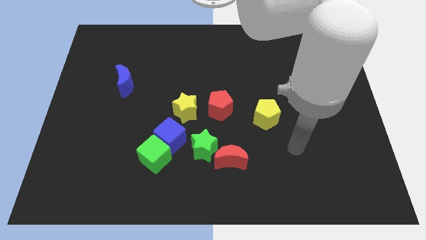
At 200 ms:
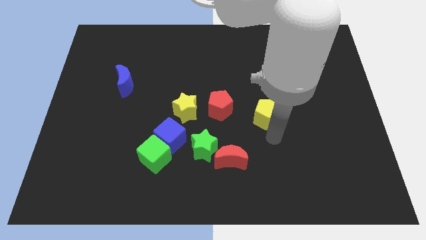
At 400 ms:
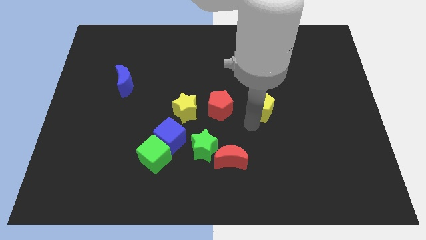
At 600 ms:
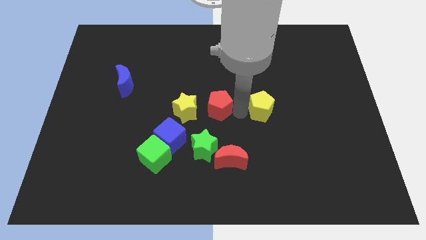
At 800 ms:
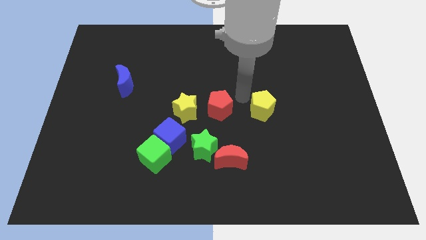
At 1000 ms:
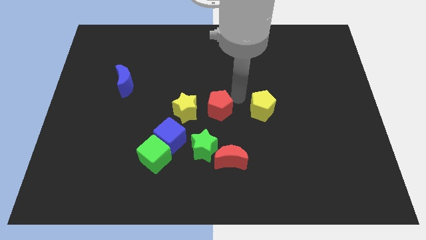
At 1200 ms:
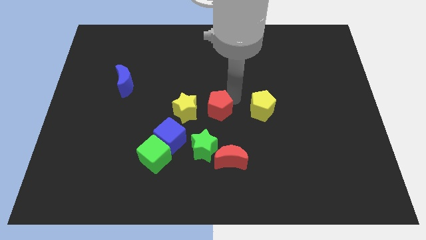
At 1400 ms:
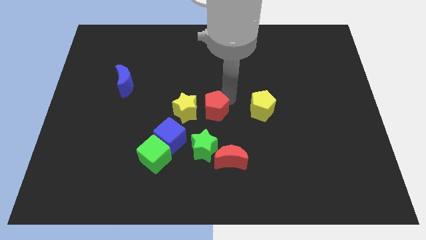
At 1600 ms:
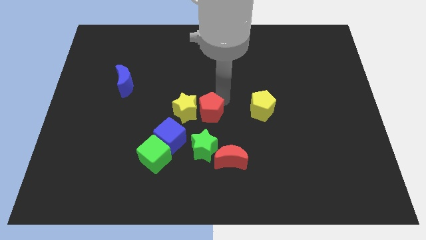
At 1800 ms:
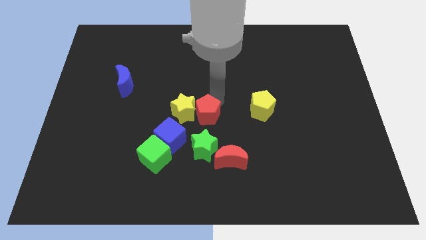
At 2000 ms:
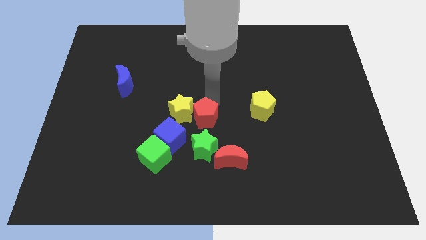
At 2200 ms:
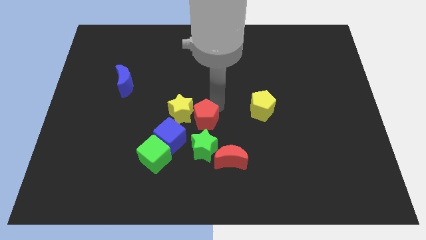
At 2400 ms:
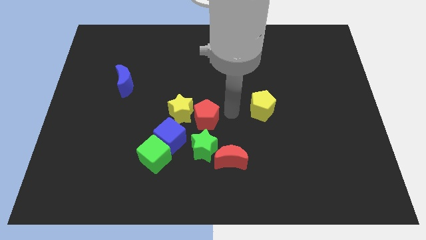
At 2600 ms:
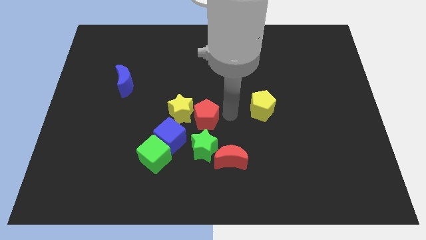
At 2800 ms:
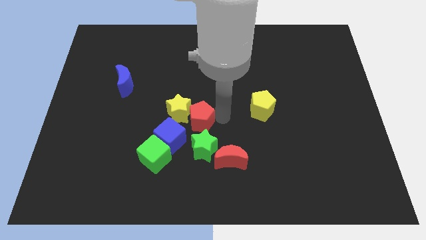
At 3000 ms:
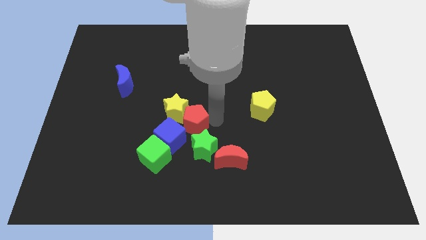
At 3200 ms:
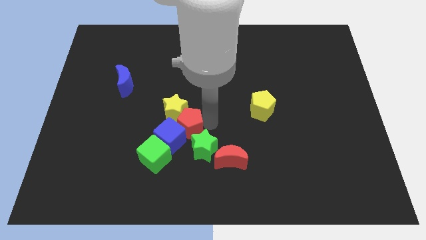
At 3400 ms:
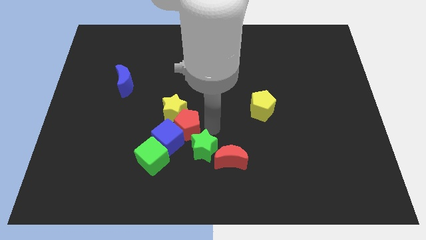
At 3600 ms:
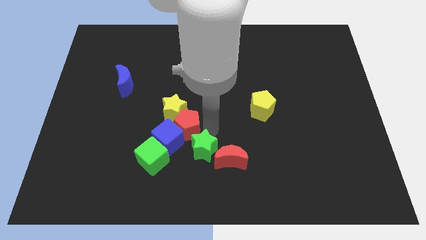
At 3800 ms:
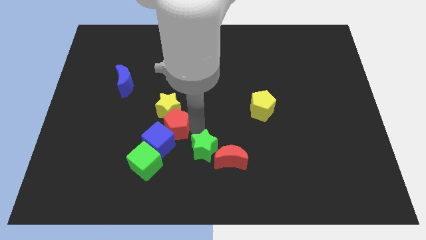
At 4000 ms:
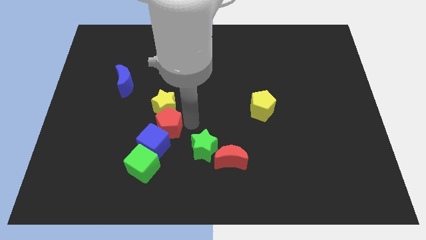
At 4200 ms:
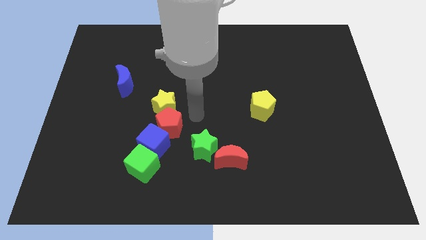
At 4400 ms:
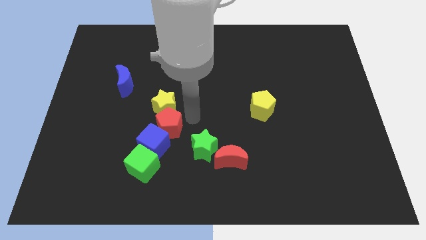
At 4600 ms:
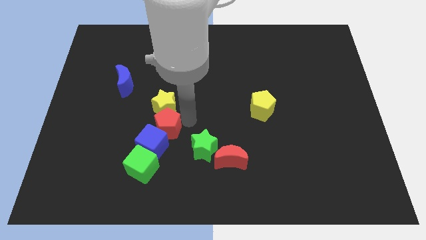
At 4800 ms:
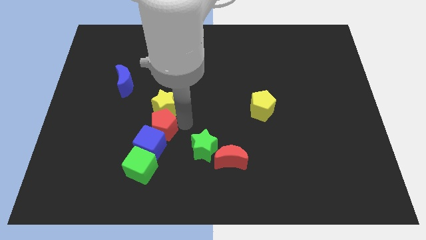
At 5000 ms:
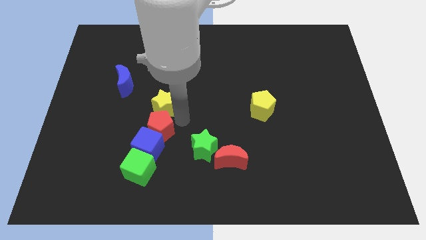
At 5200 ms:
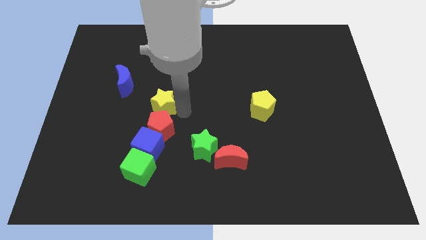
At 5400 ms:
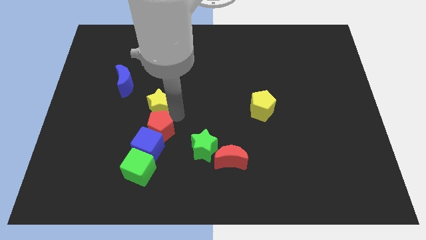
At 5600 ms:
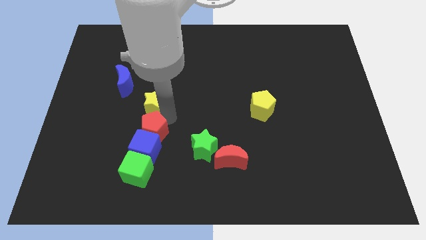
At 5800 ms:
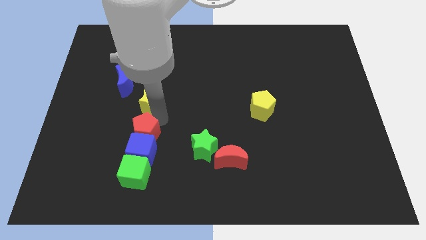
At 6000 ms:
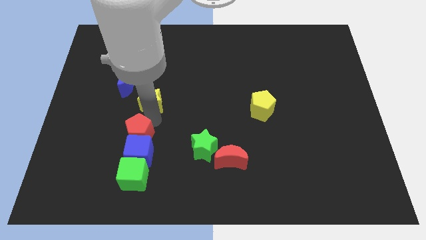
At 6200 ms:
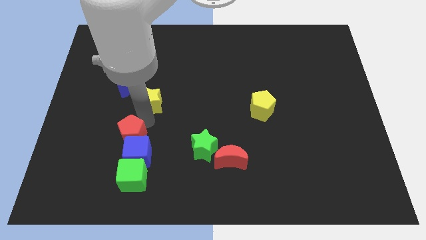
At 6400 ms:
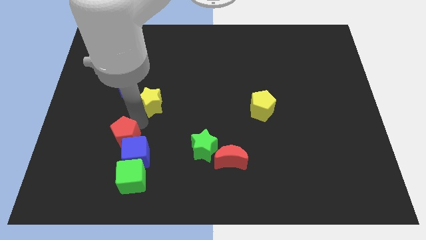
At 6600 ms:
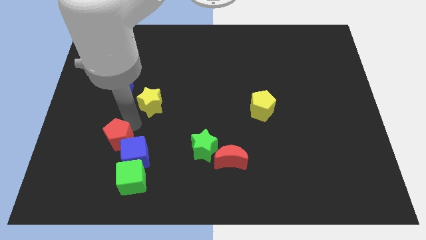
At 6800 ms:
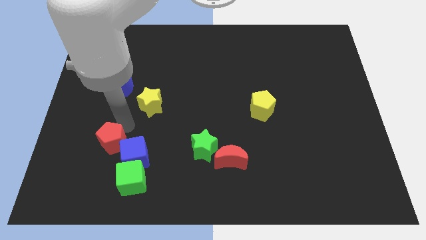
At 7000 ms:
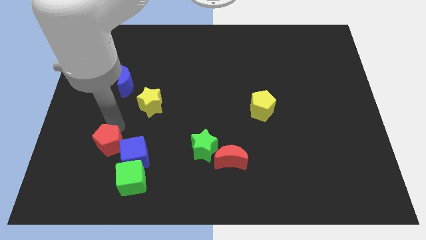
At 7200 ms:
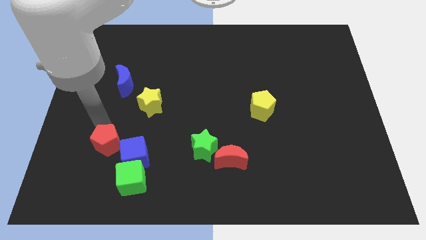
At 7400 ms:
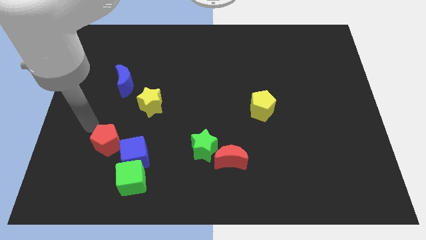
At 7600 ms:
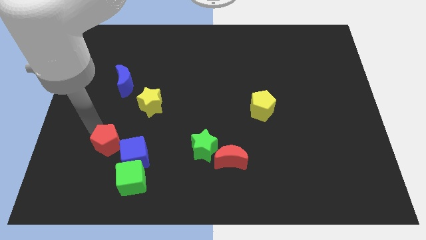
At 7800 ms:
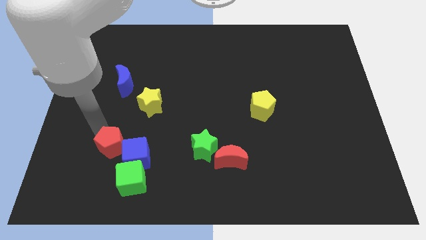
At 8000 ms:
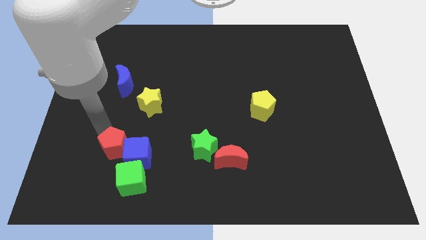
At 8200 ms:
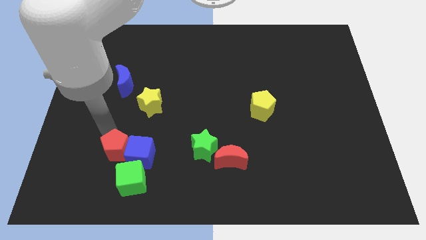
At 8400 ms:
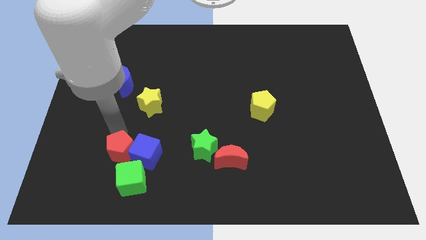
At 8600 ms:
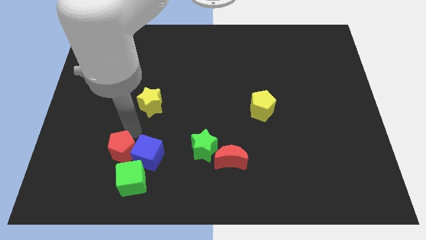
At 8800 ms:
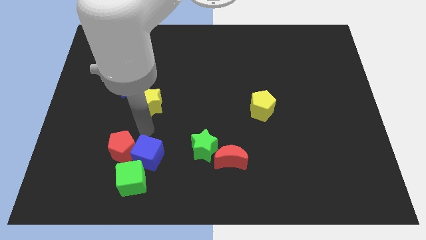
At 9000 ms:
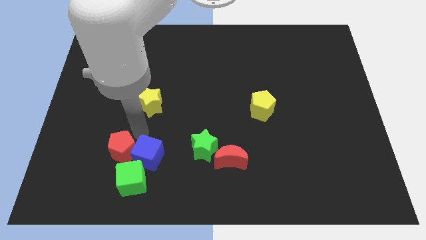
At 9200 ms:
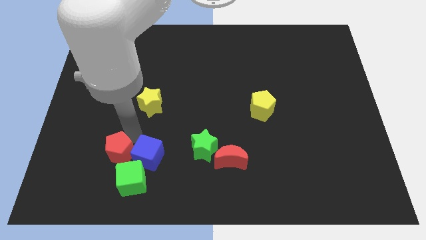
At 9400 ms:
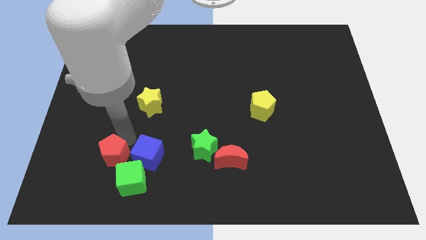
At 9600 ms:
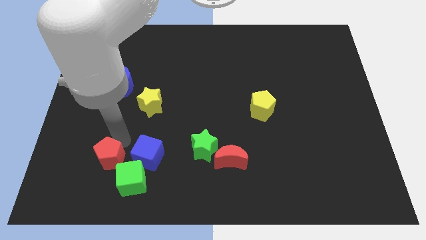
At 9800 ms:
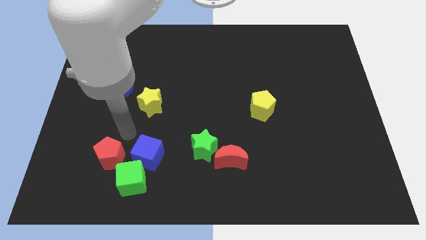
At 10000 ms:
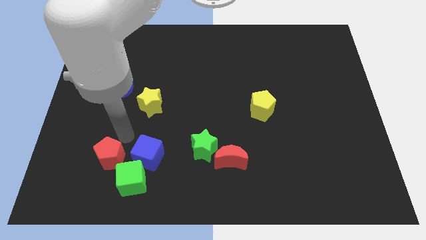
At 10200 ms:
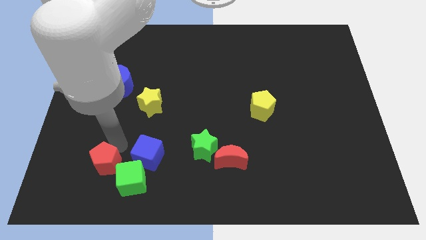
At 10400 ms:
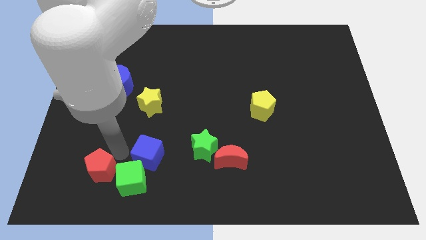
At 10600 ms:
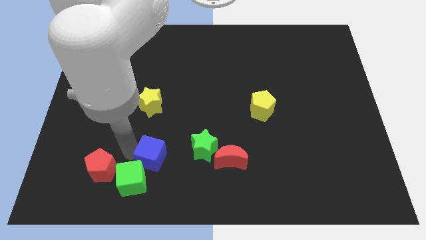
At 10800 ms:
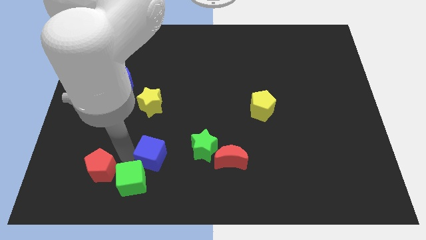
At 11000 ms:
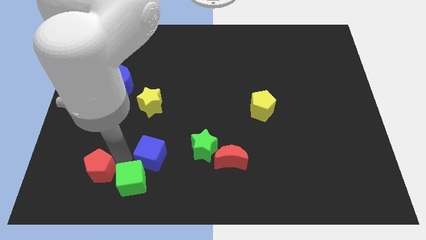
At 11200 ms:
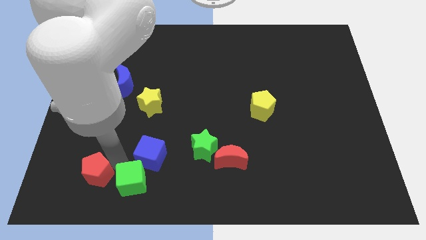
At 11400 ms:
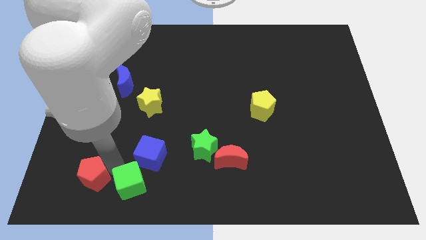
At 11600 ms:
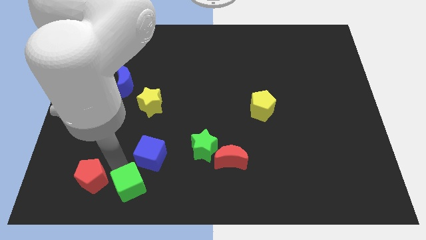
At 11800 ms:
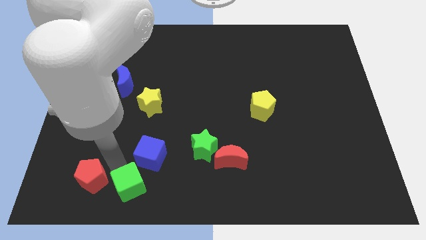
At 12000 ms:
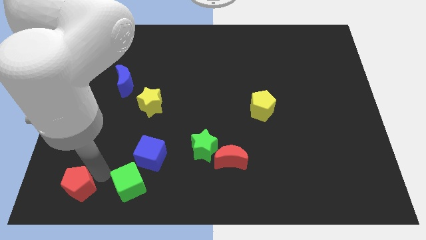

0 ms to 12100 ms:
push the red pentagon to the bottom left corner

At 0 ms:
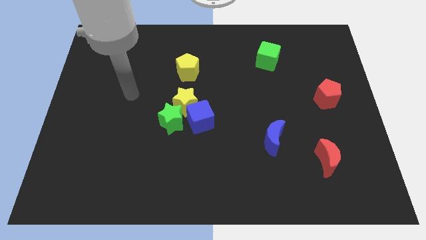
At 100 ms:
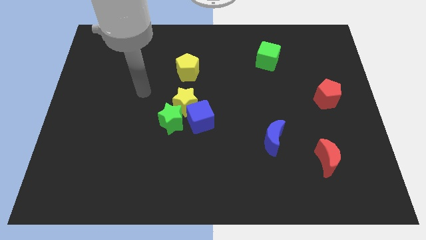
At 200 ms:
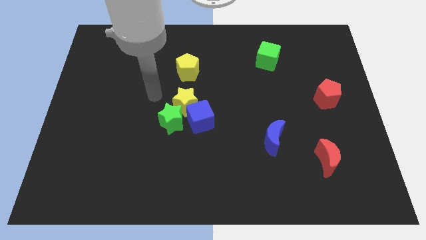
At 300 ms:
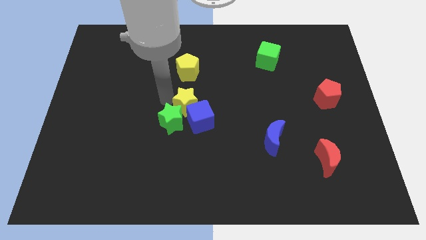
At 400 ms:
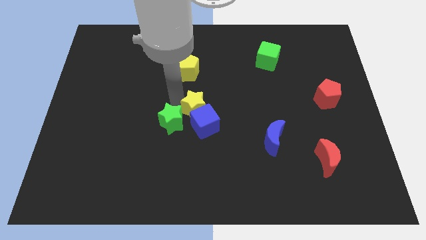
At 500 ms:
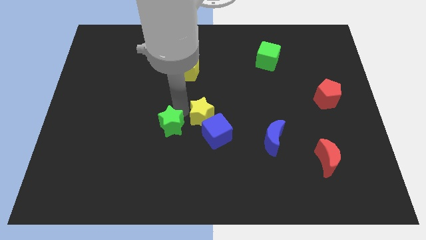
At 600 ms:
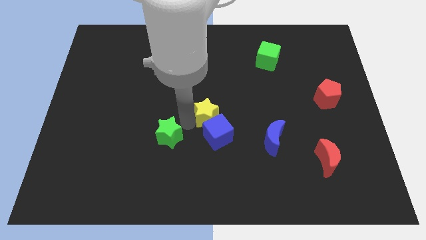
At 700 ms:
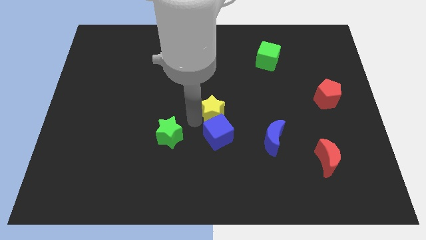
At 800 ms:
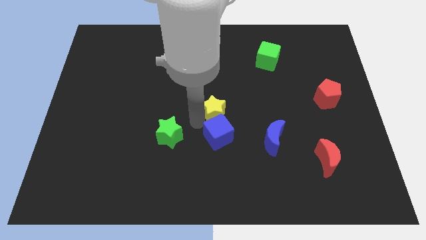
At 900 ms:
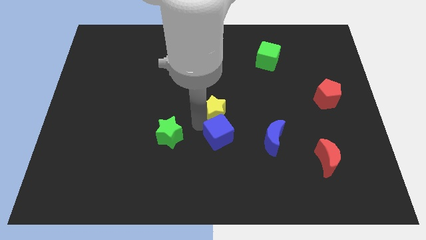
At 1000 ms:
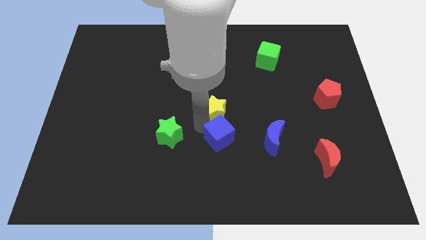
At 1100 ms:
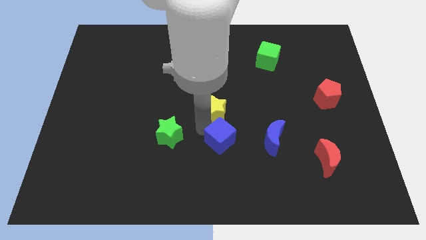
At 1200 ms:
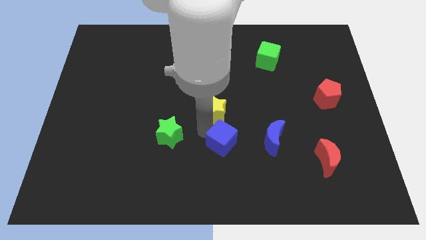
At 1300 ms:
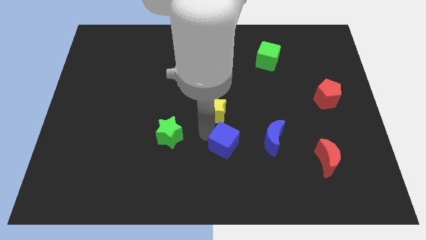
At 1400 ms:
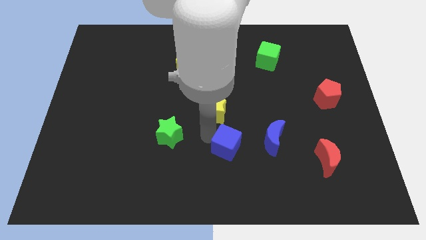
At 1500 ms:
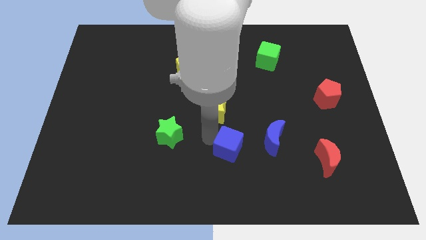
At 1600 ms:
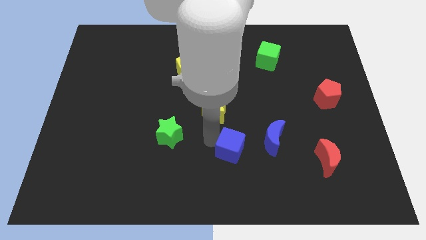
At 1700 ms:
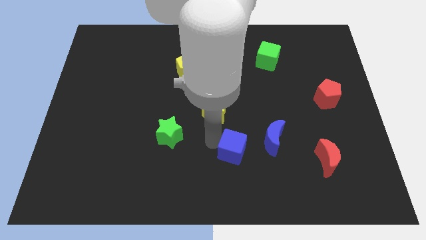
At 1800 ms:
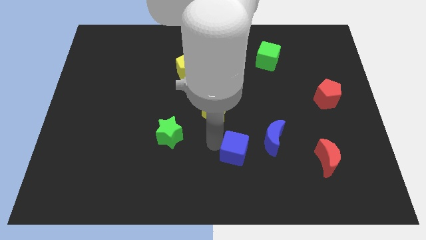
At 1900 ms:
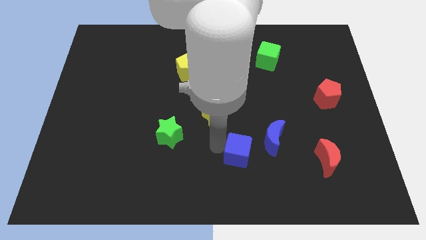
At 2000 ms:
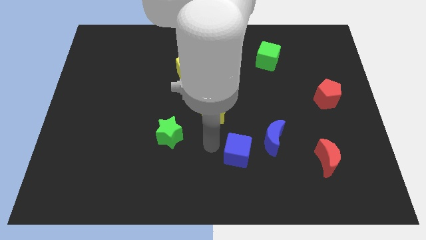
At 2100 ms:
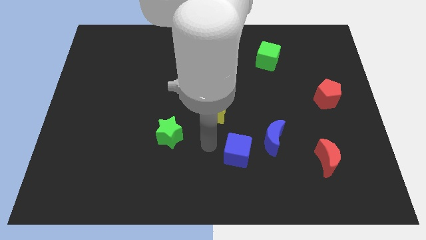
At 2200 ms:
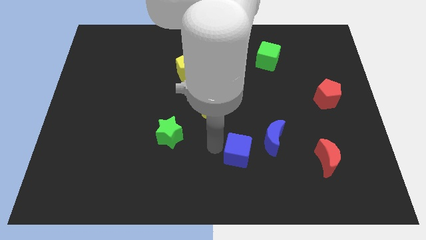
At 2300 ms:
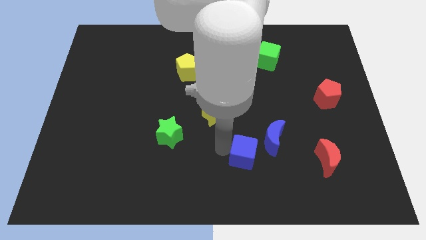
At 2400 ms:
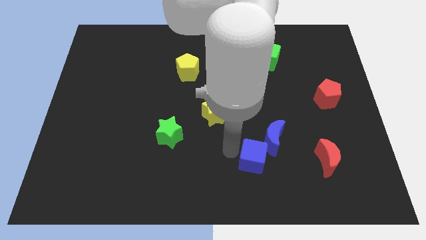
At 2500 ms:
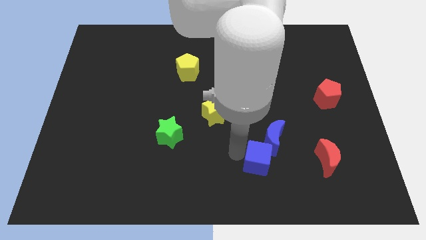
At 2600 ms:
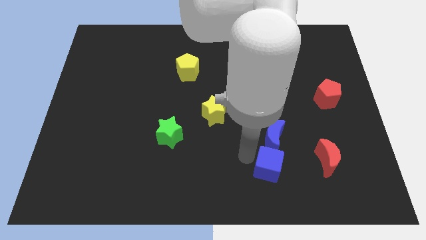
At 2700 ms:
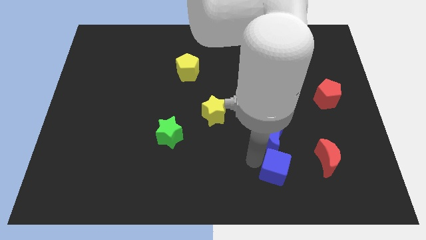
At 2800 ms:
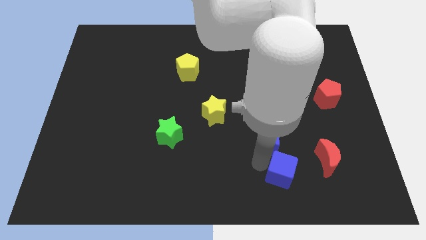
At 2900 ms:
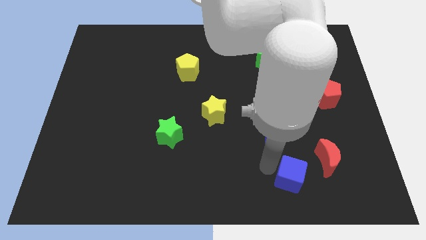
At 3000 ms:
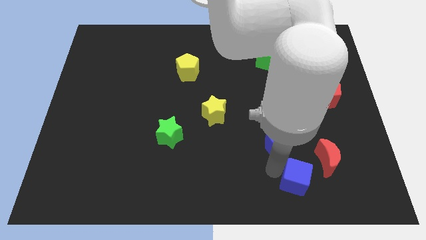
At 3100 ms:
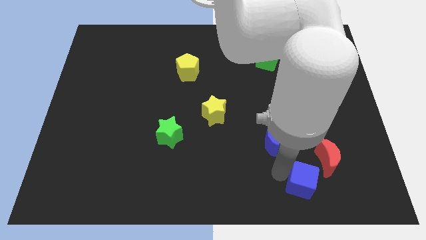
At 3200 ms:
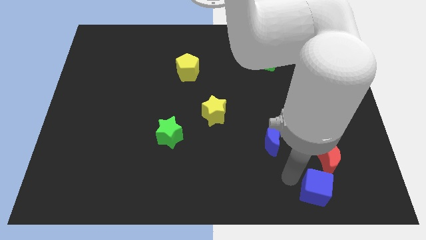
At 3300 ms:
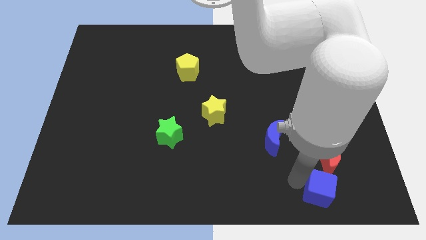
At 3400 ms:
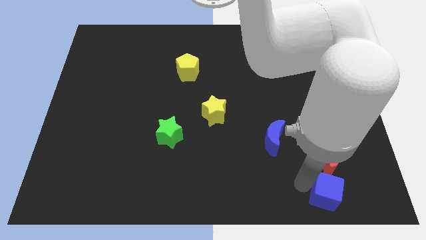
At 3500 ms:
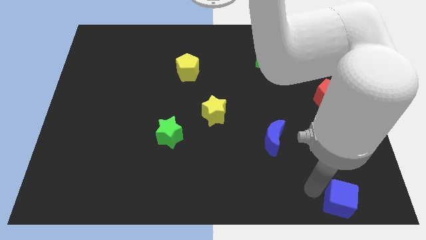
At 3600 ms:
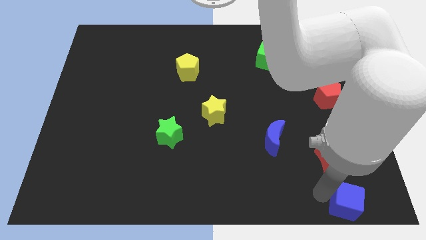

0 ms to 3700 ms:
slide the blue cube to the bottom right
